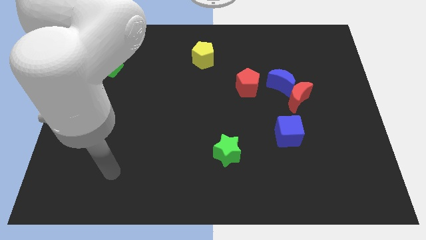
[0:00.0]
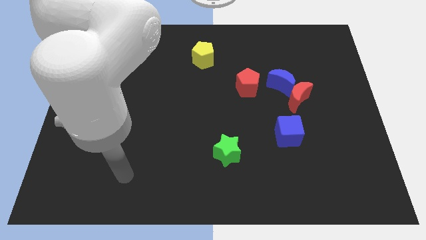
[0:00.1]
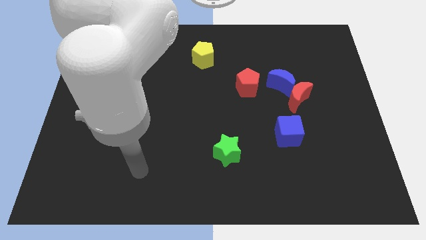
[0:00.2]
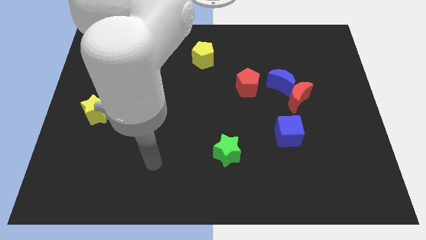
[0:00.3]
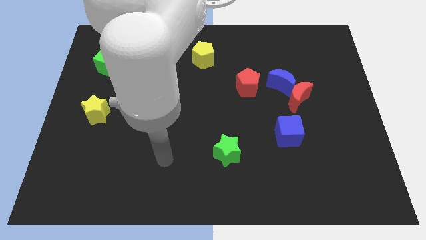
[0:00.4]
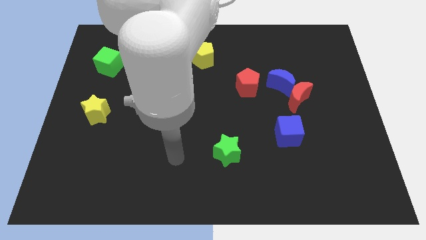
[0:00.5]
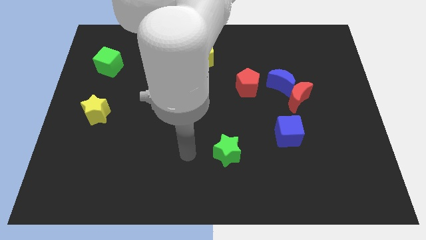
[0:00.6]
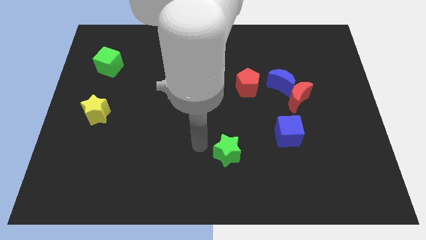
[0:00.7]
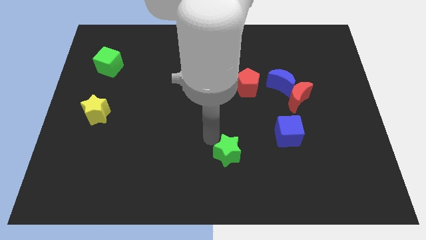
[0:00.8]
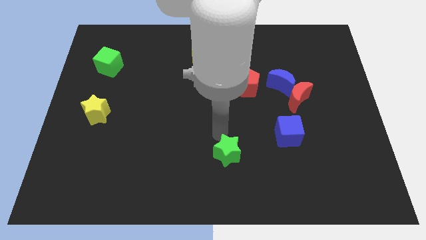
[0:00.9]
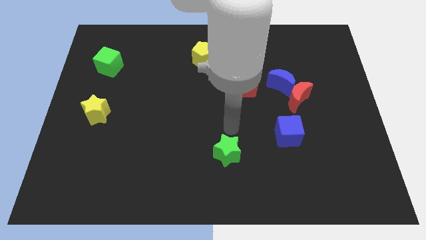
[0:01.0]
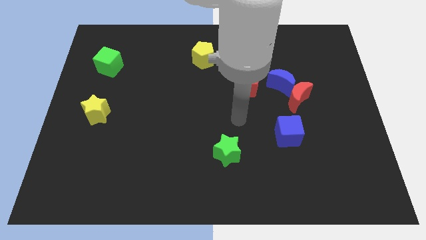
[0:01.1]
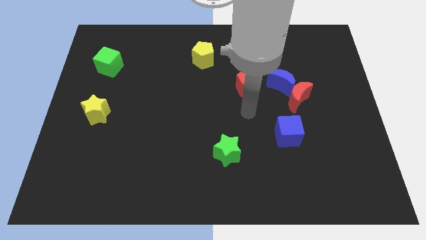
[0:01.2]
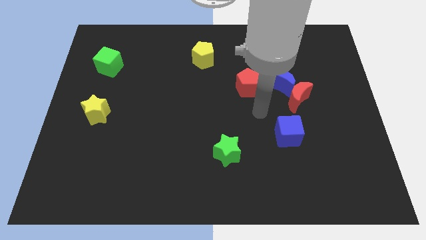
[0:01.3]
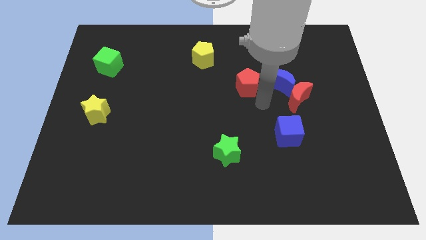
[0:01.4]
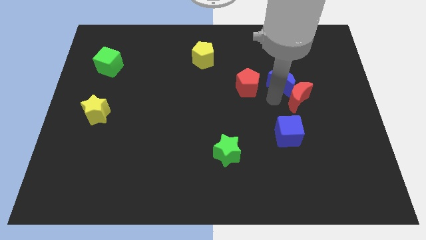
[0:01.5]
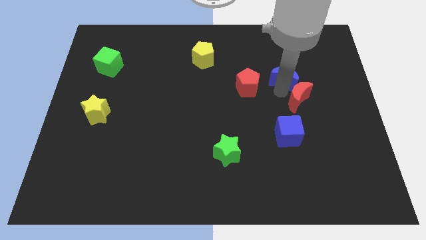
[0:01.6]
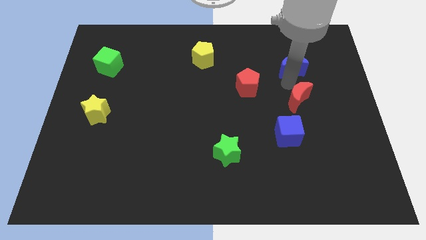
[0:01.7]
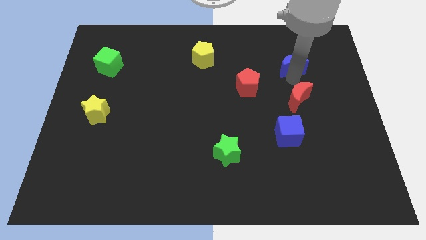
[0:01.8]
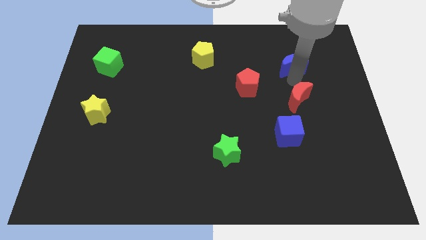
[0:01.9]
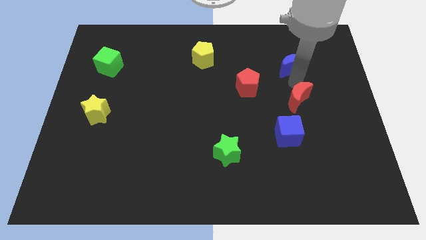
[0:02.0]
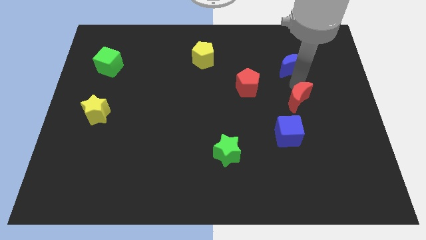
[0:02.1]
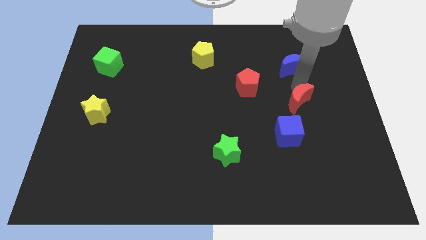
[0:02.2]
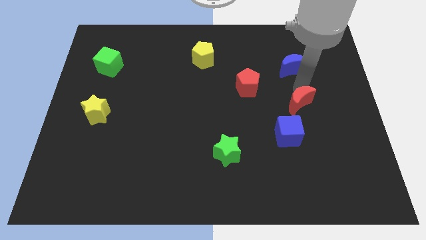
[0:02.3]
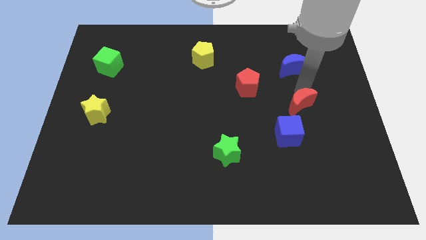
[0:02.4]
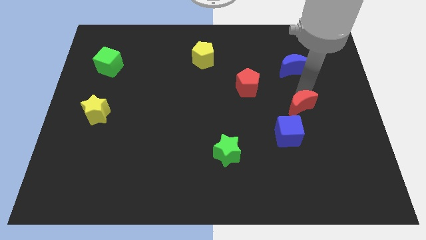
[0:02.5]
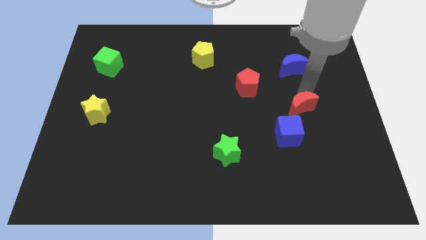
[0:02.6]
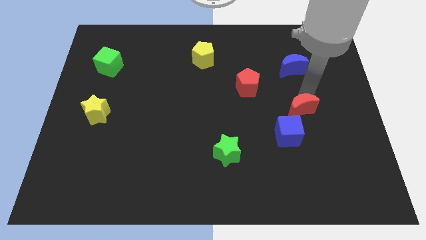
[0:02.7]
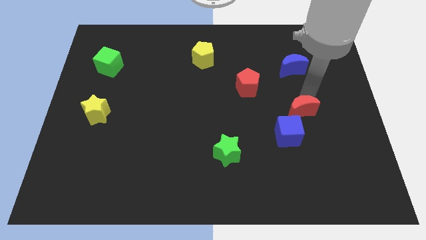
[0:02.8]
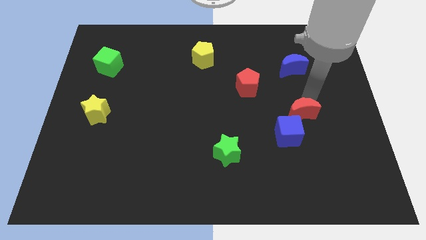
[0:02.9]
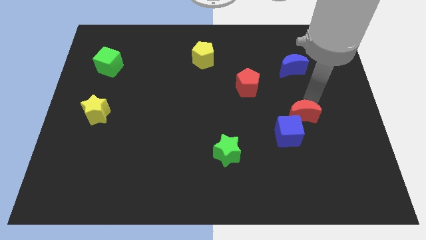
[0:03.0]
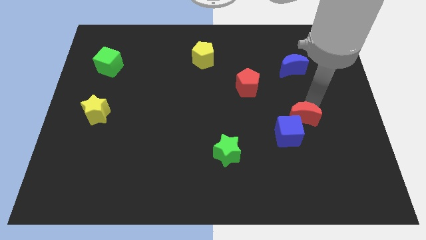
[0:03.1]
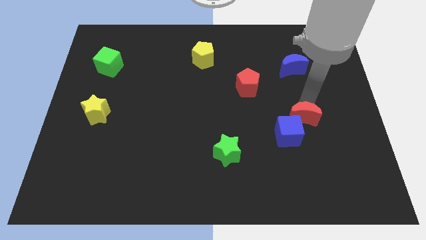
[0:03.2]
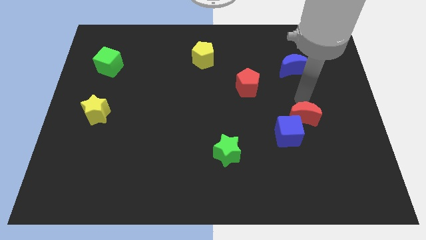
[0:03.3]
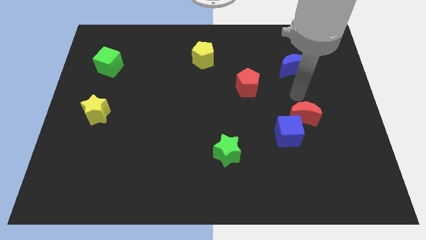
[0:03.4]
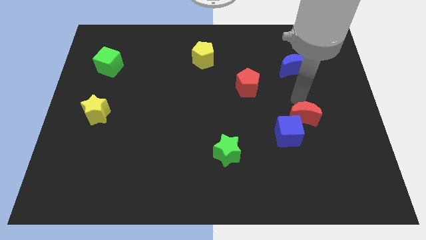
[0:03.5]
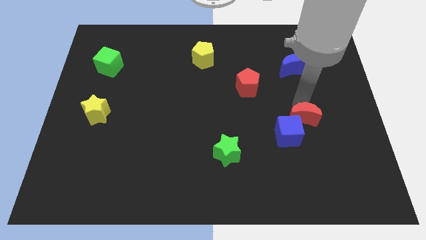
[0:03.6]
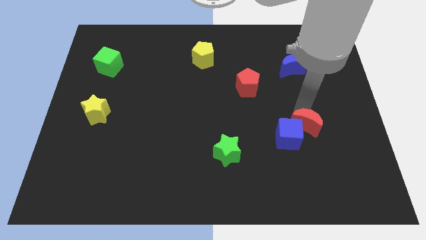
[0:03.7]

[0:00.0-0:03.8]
slide the red moon a bit downwards

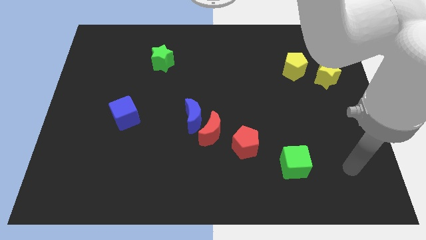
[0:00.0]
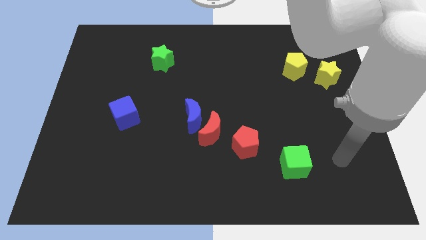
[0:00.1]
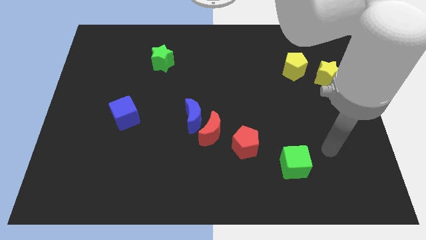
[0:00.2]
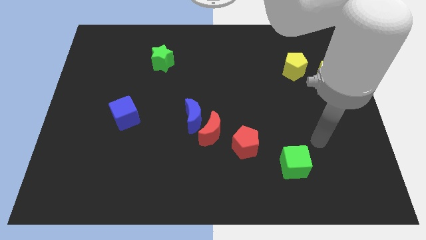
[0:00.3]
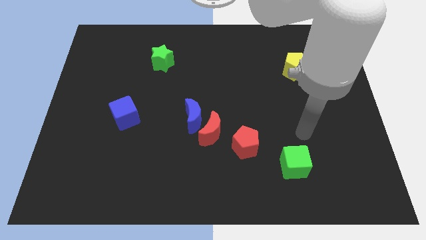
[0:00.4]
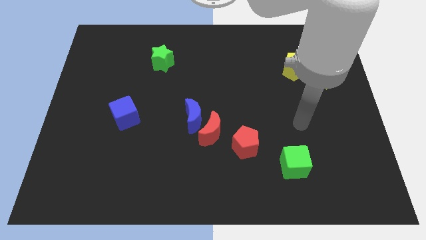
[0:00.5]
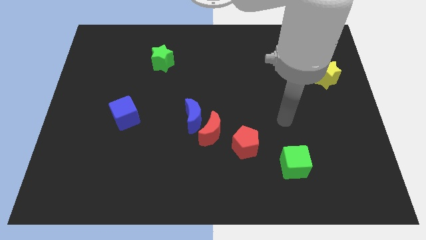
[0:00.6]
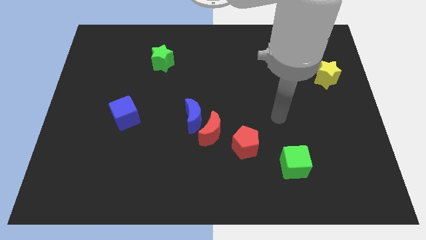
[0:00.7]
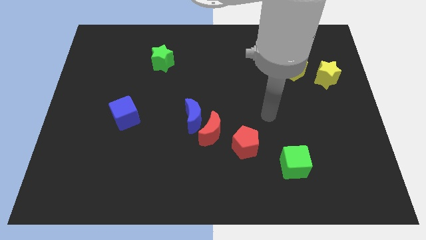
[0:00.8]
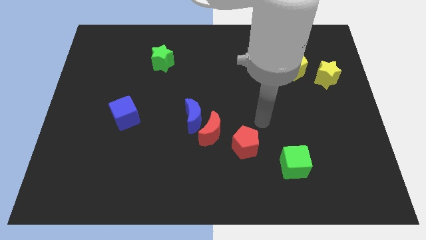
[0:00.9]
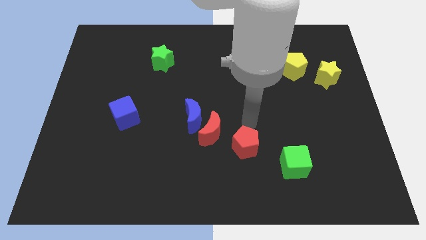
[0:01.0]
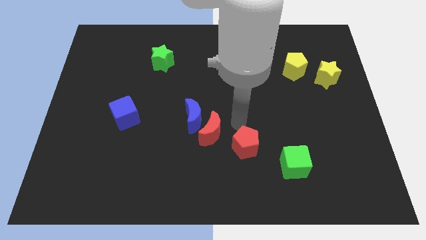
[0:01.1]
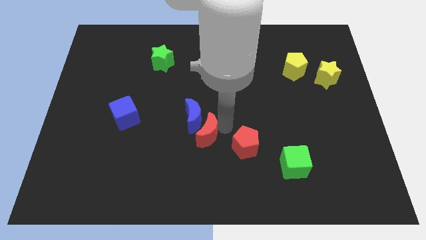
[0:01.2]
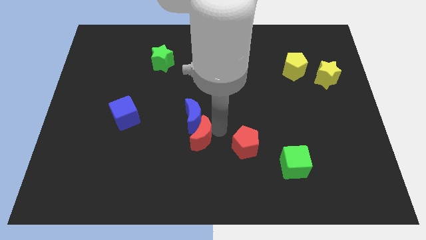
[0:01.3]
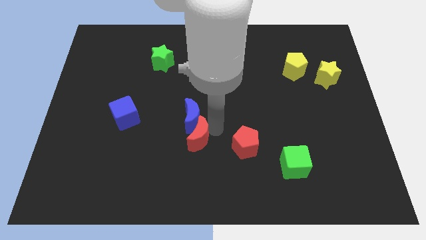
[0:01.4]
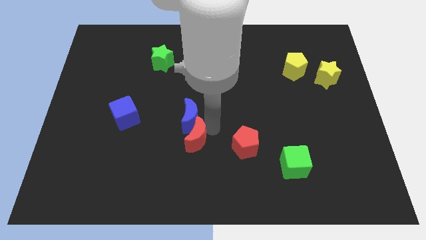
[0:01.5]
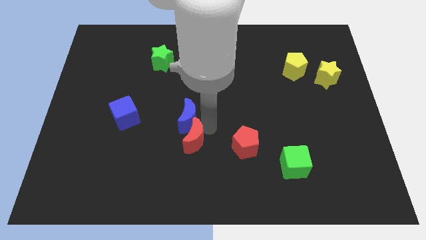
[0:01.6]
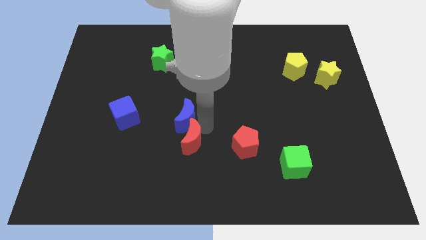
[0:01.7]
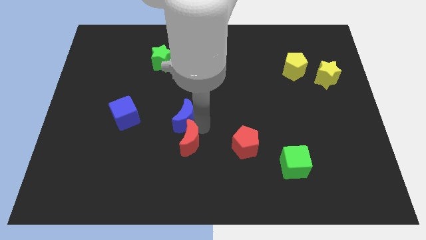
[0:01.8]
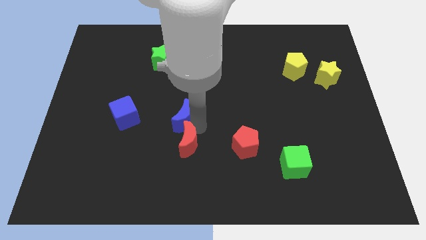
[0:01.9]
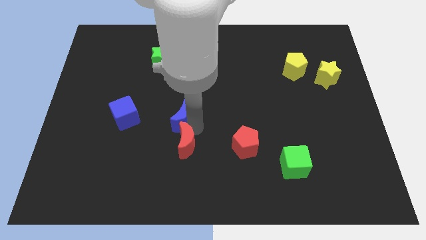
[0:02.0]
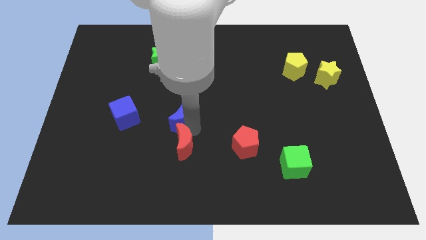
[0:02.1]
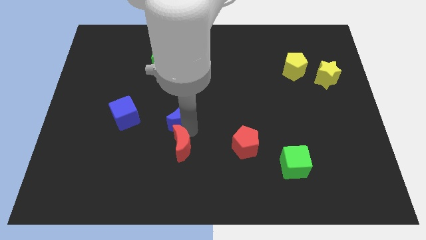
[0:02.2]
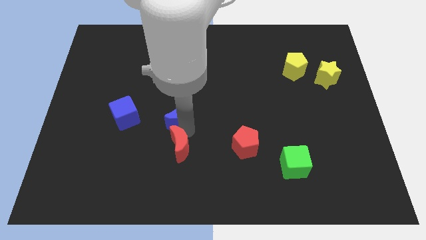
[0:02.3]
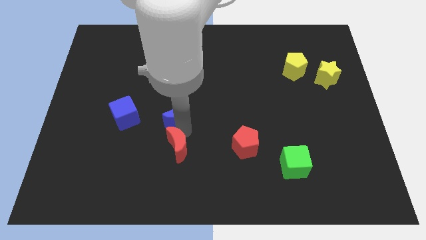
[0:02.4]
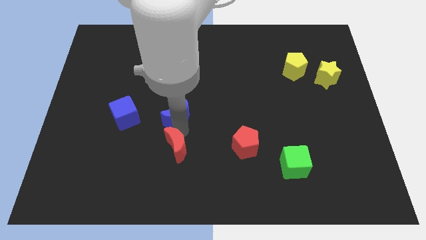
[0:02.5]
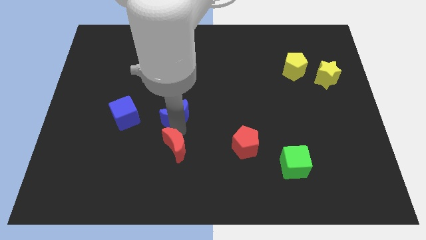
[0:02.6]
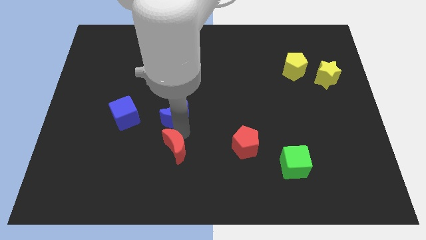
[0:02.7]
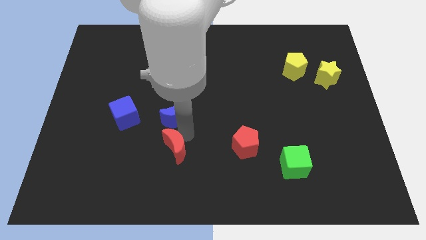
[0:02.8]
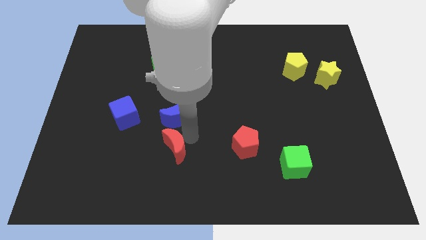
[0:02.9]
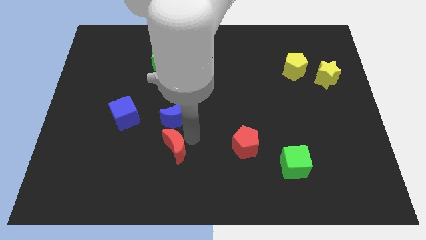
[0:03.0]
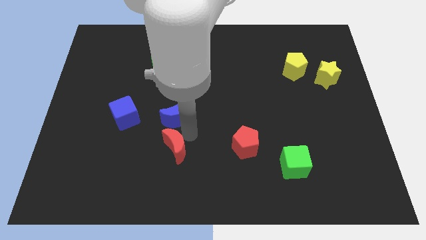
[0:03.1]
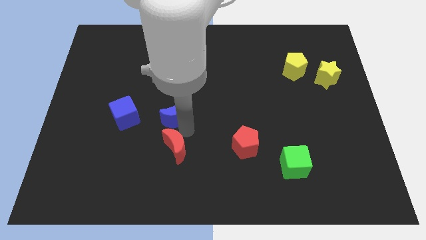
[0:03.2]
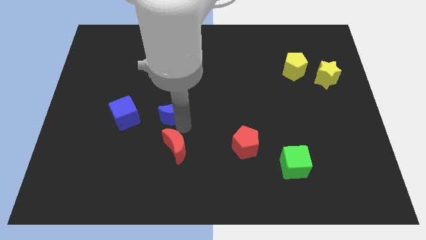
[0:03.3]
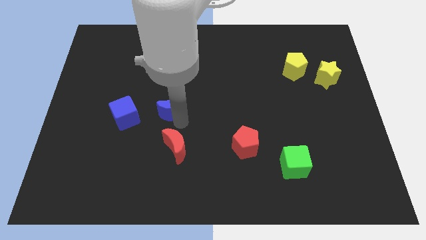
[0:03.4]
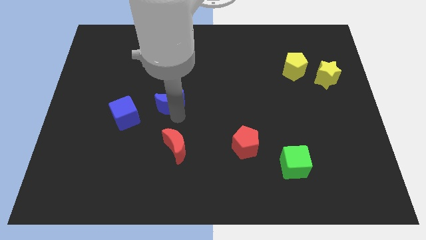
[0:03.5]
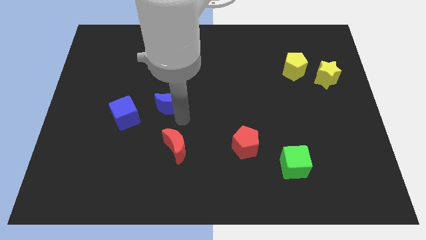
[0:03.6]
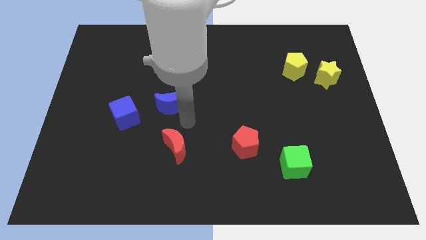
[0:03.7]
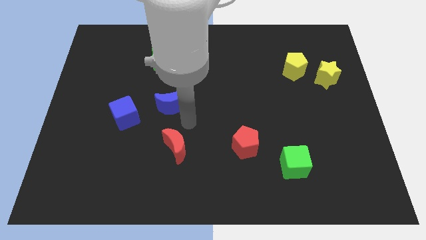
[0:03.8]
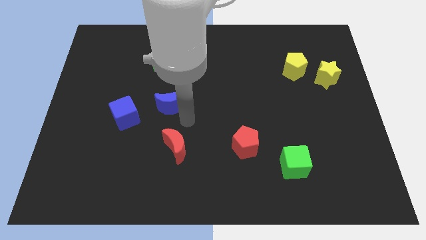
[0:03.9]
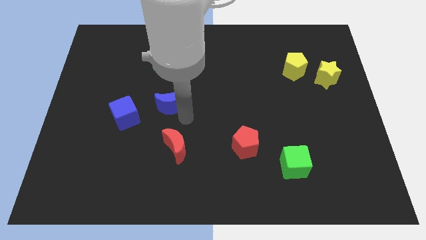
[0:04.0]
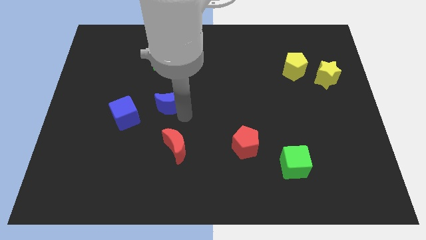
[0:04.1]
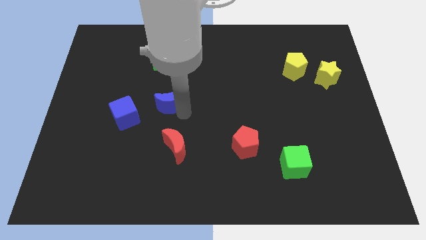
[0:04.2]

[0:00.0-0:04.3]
move the blue moon a little up and to the left diagonally
